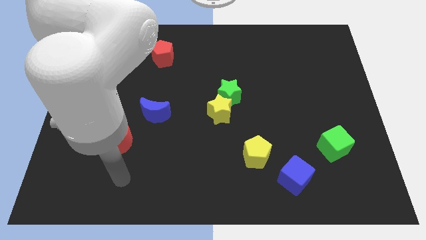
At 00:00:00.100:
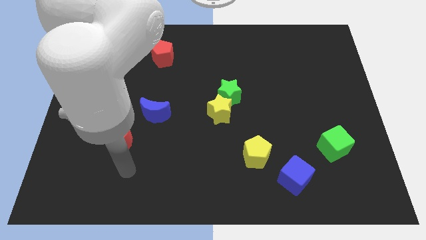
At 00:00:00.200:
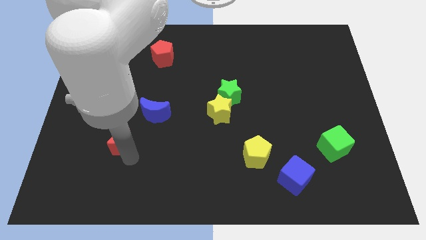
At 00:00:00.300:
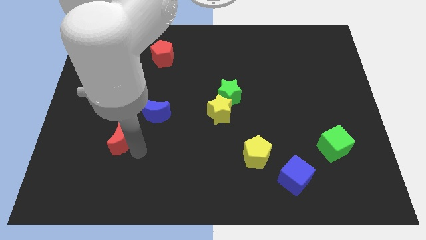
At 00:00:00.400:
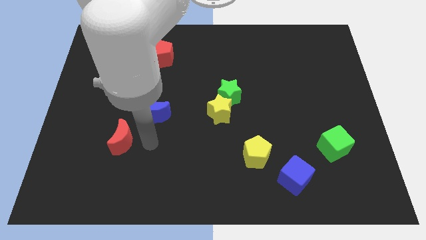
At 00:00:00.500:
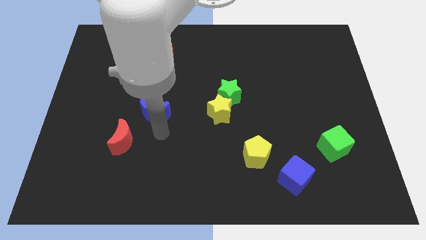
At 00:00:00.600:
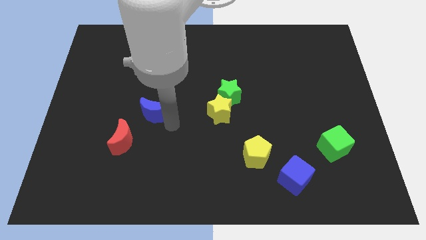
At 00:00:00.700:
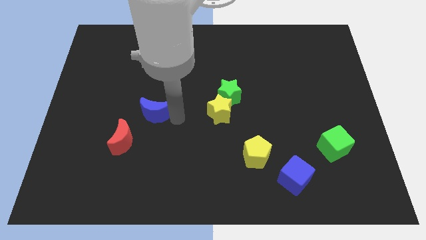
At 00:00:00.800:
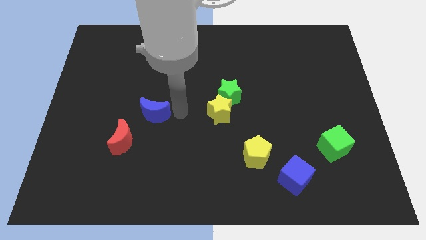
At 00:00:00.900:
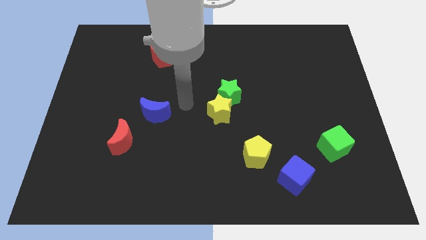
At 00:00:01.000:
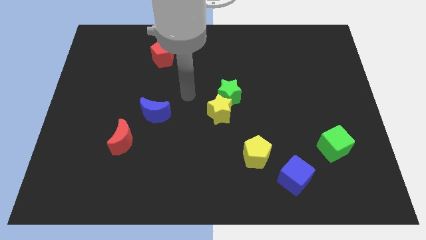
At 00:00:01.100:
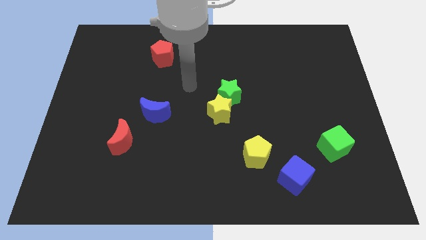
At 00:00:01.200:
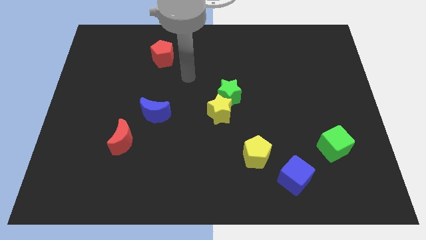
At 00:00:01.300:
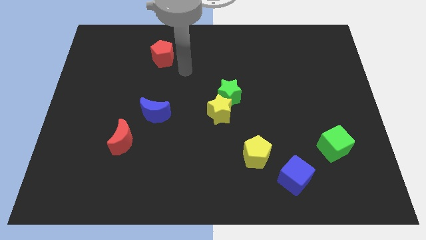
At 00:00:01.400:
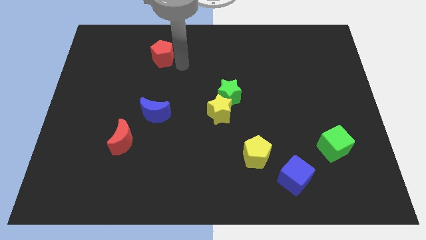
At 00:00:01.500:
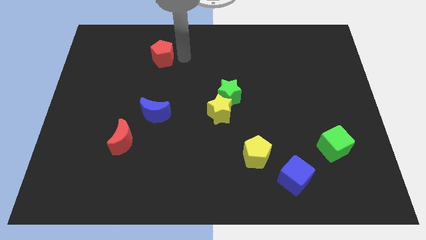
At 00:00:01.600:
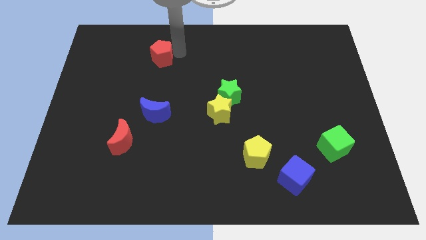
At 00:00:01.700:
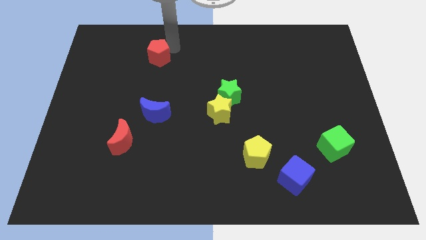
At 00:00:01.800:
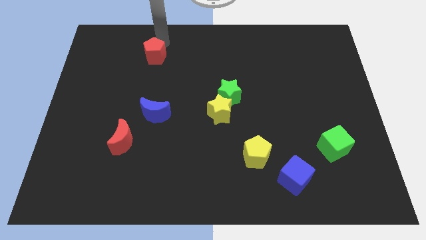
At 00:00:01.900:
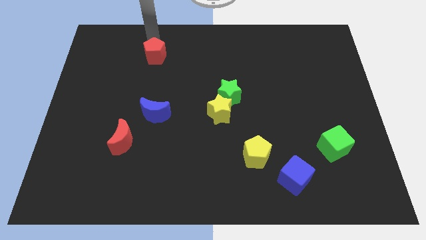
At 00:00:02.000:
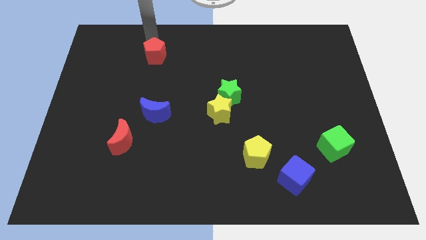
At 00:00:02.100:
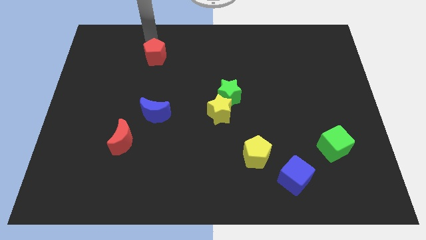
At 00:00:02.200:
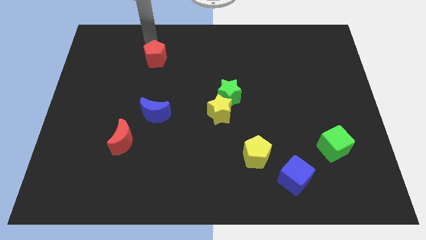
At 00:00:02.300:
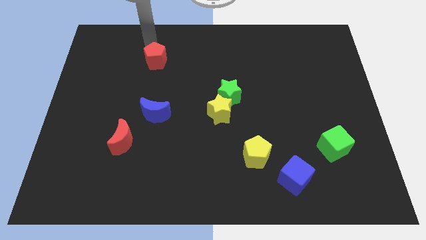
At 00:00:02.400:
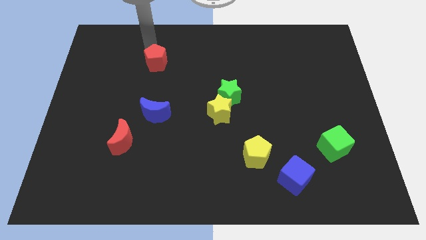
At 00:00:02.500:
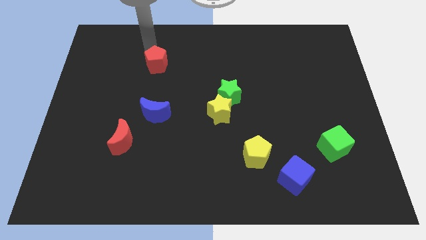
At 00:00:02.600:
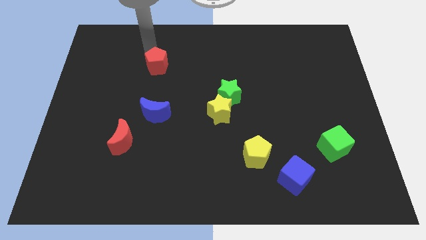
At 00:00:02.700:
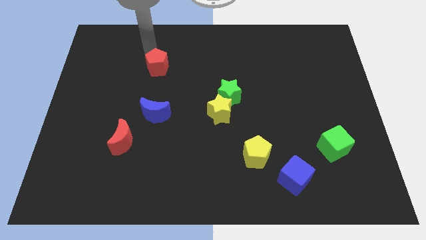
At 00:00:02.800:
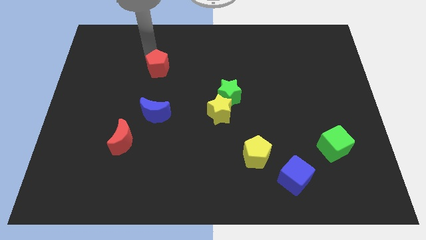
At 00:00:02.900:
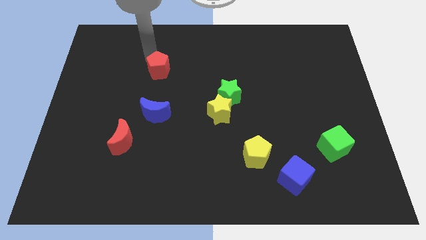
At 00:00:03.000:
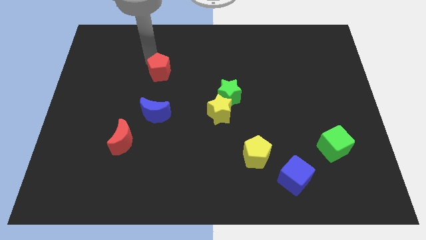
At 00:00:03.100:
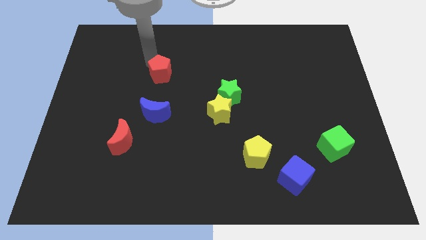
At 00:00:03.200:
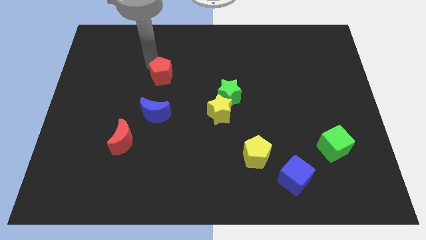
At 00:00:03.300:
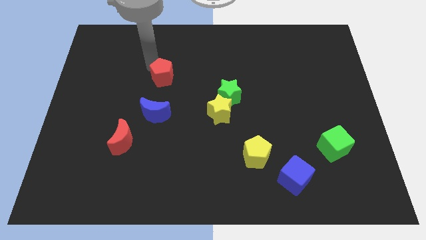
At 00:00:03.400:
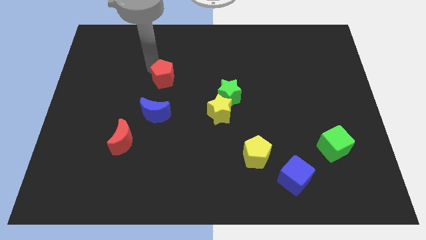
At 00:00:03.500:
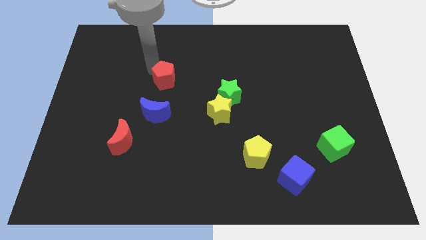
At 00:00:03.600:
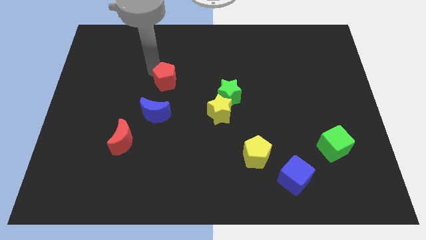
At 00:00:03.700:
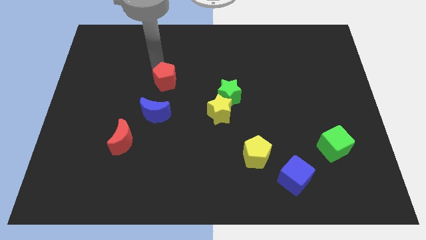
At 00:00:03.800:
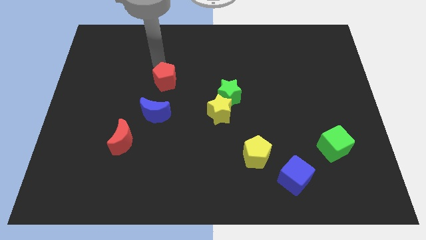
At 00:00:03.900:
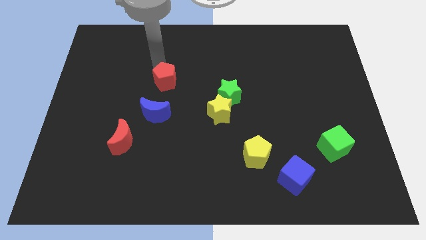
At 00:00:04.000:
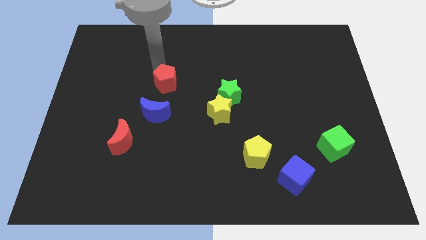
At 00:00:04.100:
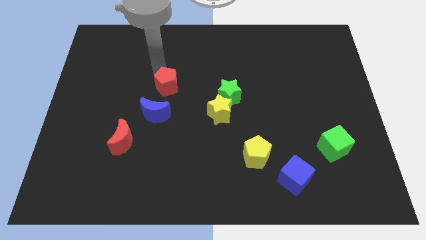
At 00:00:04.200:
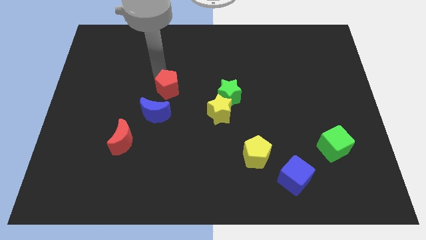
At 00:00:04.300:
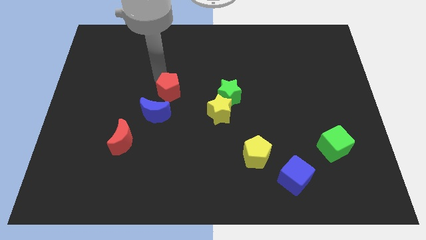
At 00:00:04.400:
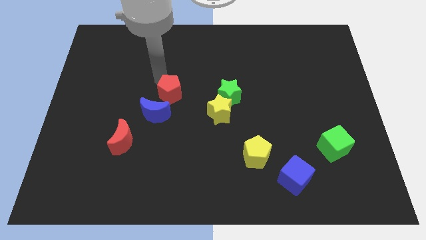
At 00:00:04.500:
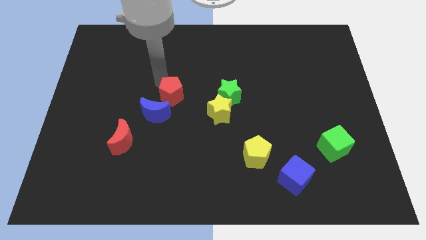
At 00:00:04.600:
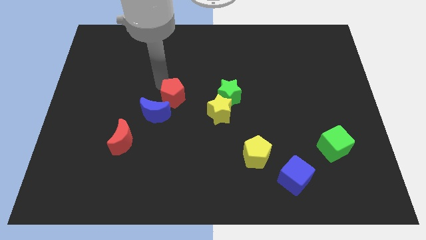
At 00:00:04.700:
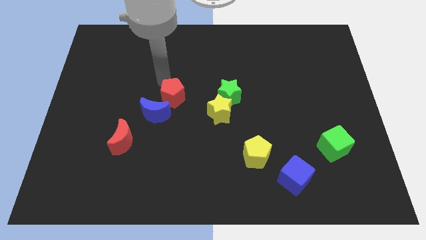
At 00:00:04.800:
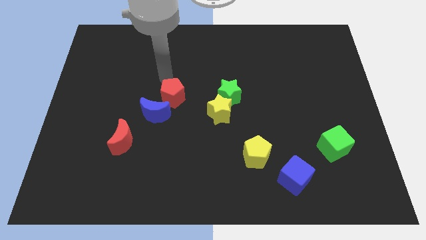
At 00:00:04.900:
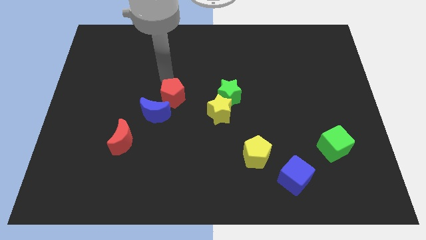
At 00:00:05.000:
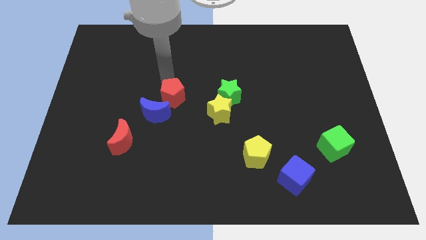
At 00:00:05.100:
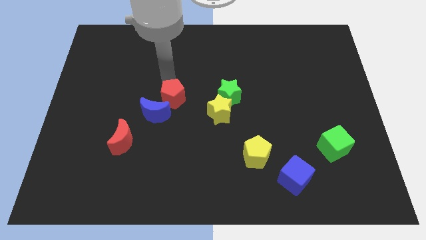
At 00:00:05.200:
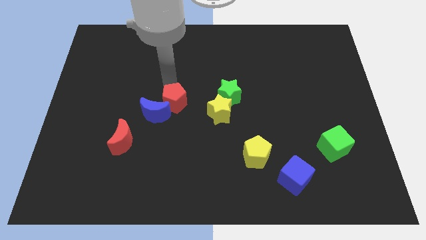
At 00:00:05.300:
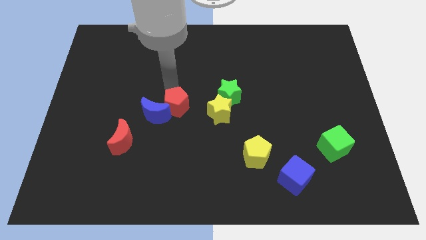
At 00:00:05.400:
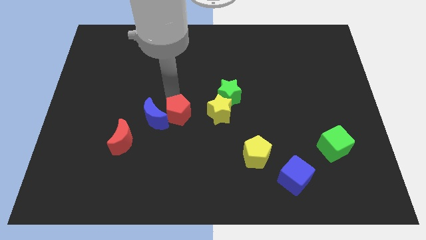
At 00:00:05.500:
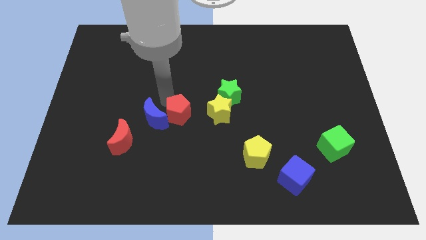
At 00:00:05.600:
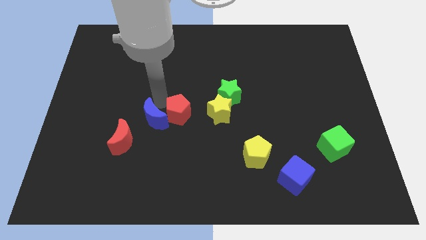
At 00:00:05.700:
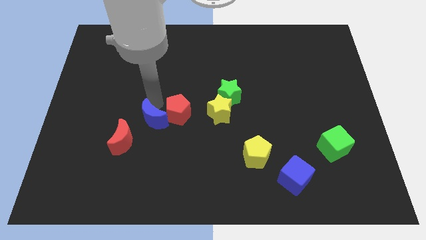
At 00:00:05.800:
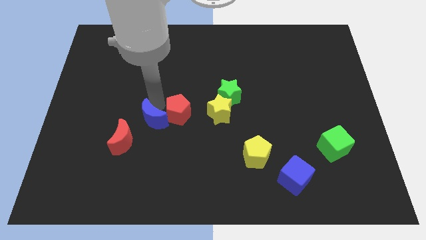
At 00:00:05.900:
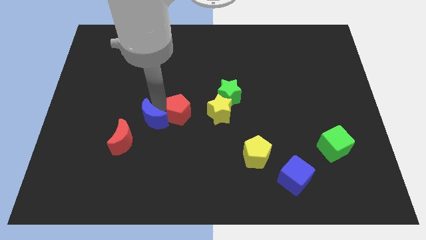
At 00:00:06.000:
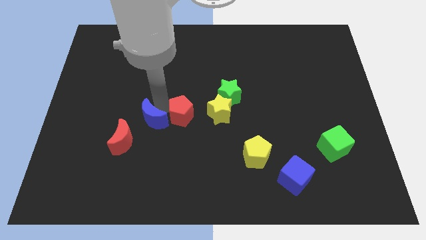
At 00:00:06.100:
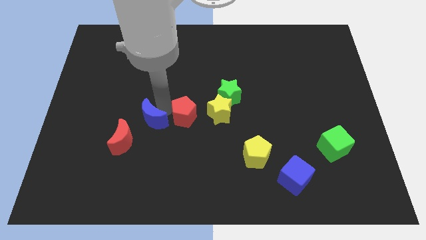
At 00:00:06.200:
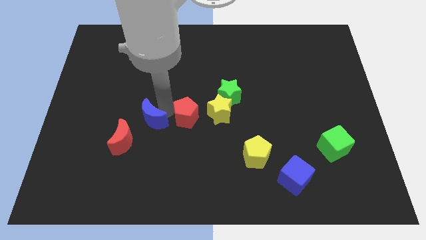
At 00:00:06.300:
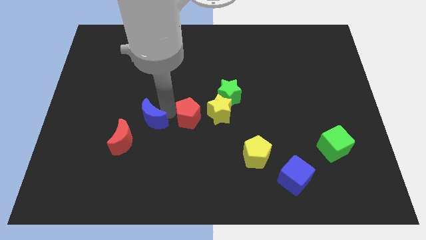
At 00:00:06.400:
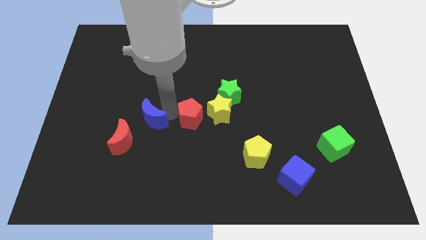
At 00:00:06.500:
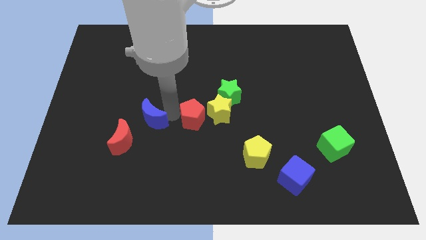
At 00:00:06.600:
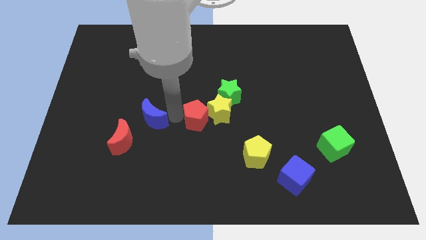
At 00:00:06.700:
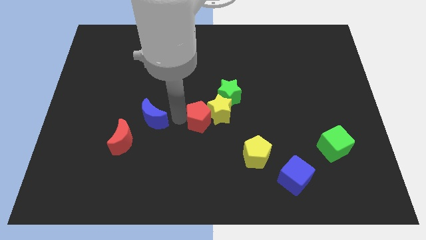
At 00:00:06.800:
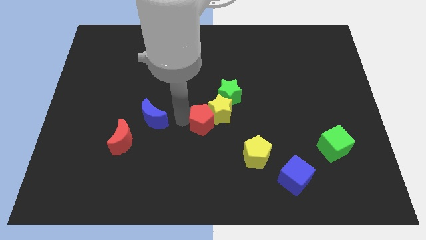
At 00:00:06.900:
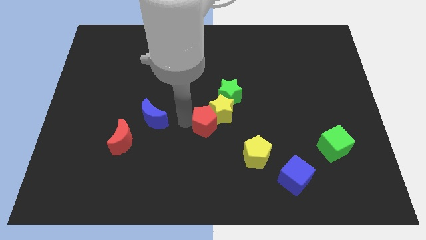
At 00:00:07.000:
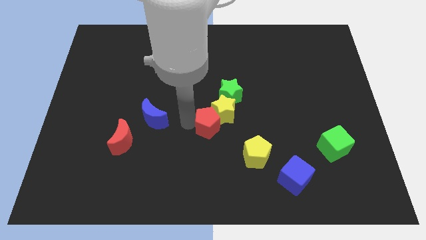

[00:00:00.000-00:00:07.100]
put the red pentagon diagonally up and to the left of the yellow pentagon
